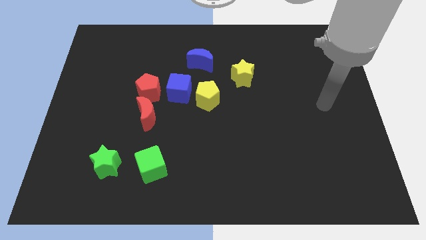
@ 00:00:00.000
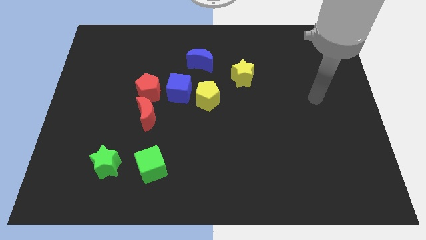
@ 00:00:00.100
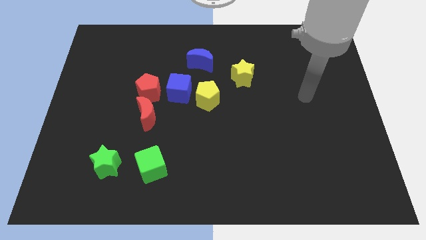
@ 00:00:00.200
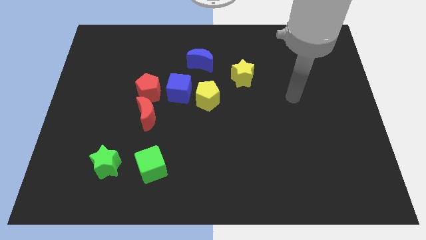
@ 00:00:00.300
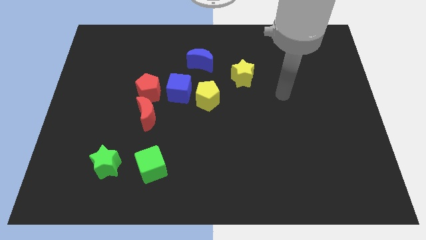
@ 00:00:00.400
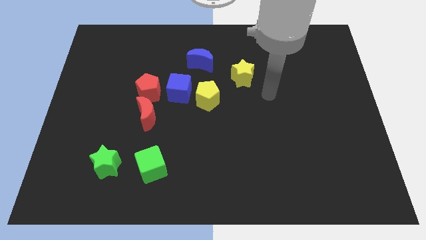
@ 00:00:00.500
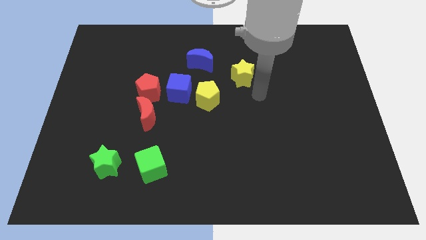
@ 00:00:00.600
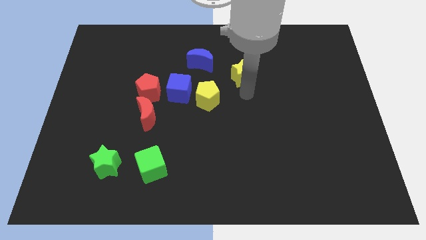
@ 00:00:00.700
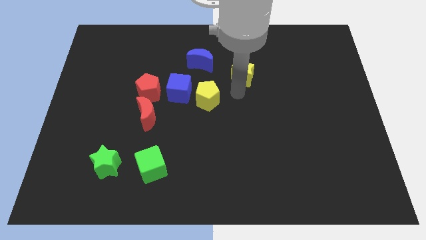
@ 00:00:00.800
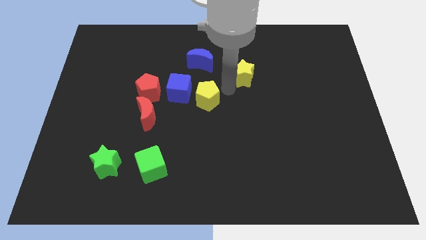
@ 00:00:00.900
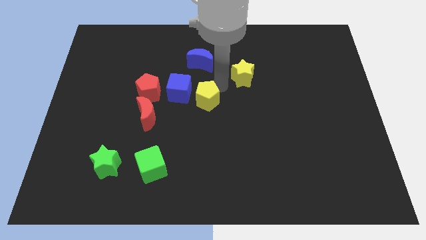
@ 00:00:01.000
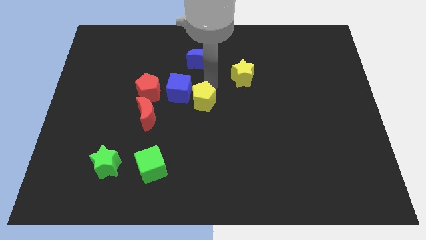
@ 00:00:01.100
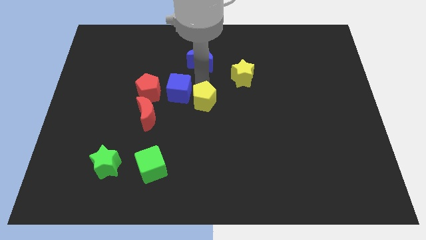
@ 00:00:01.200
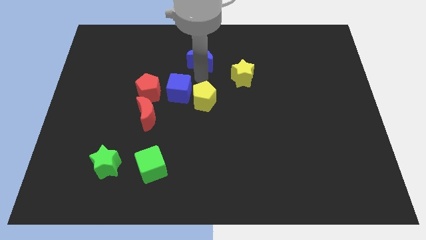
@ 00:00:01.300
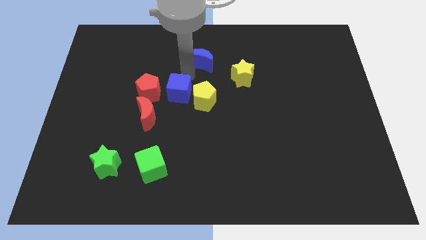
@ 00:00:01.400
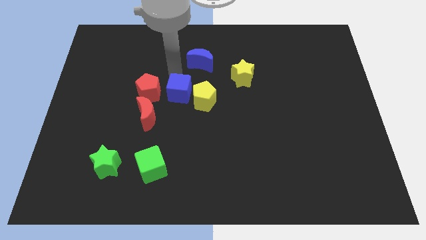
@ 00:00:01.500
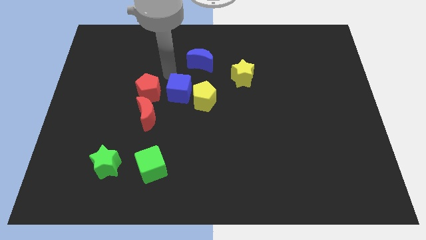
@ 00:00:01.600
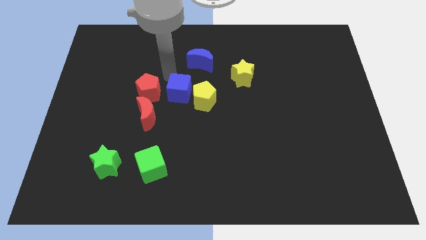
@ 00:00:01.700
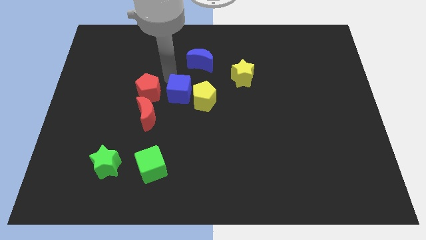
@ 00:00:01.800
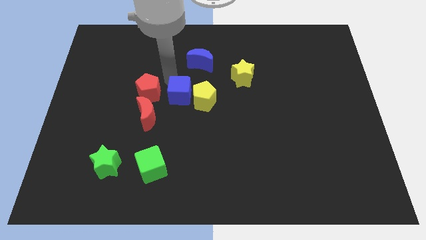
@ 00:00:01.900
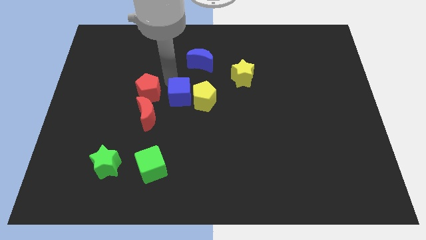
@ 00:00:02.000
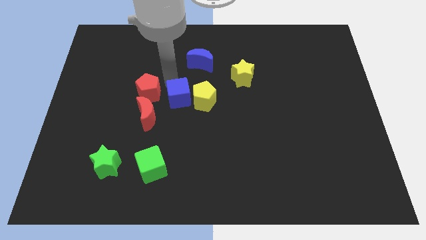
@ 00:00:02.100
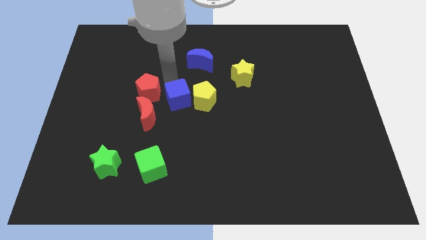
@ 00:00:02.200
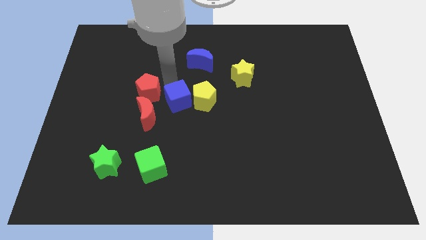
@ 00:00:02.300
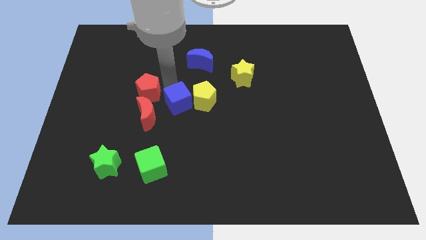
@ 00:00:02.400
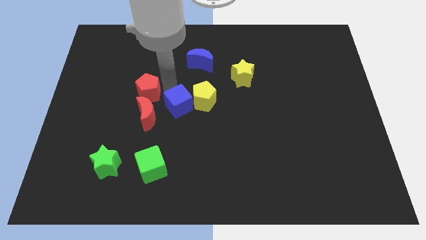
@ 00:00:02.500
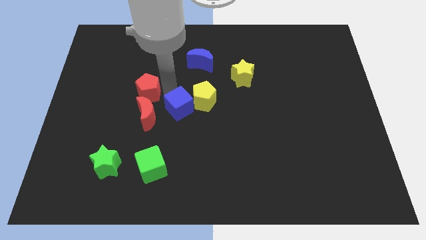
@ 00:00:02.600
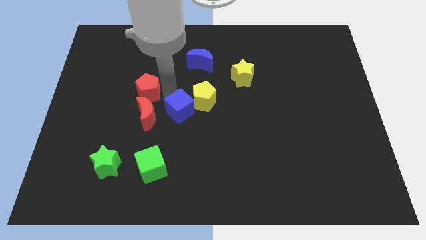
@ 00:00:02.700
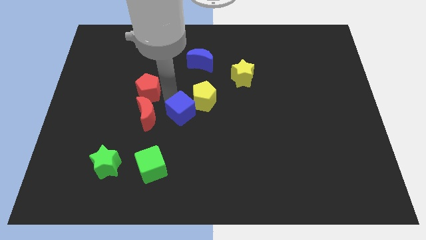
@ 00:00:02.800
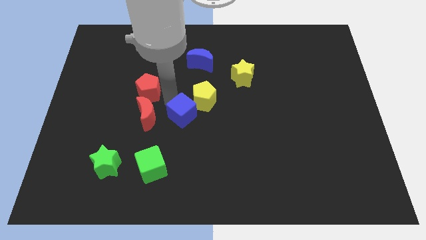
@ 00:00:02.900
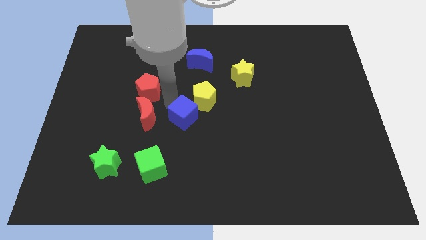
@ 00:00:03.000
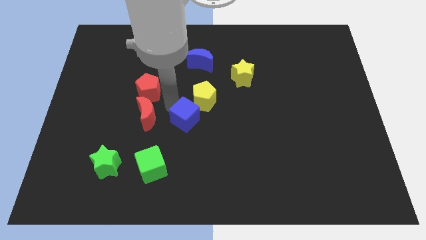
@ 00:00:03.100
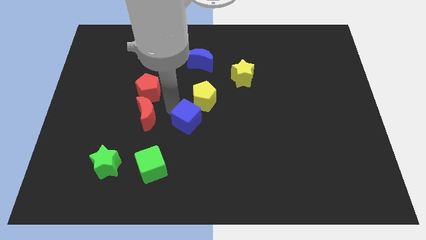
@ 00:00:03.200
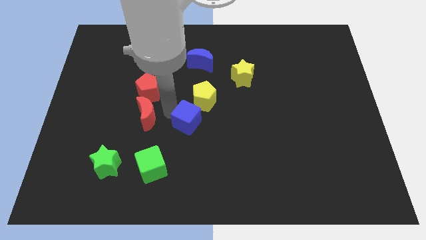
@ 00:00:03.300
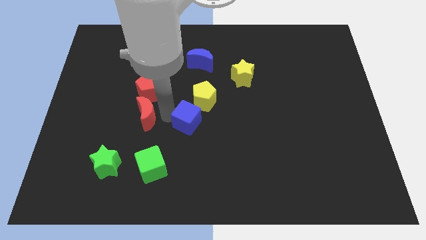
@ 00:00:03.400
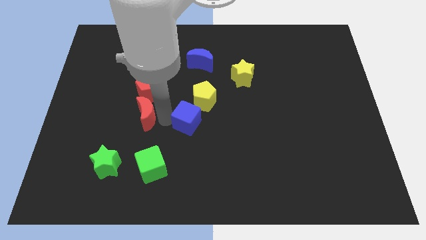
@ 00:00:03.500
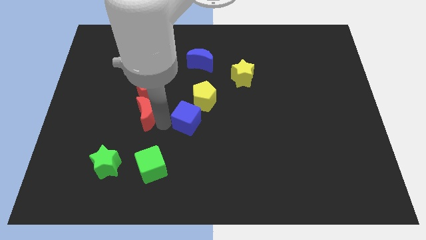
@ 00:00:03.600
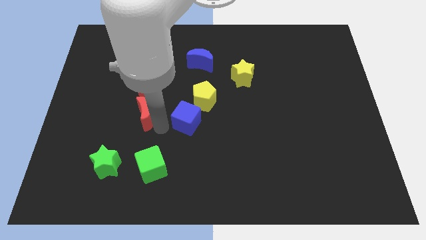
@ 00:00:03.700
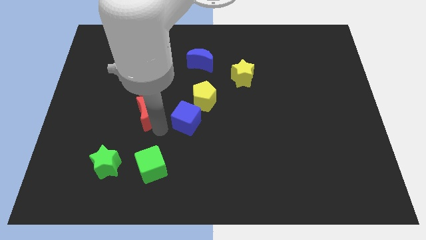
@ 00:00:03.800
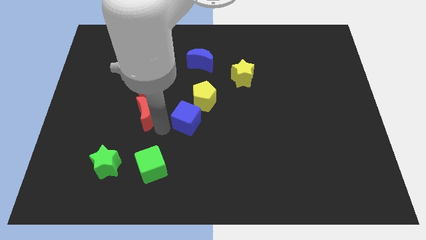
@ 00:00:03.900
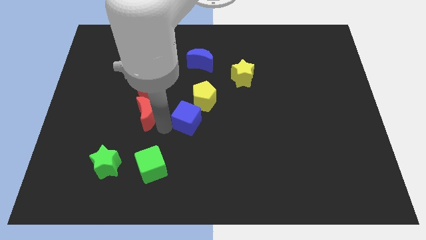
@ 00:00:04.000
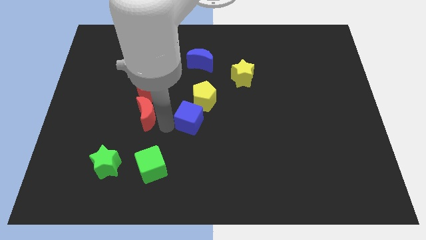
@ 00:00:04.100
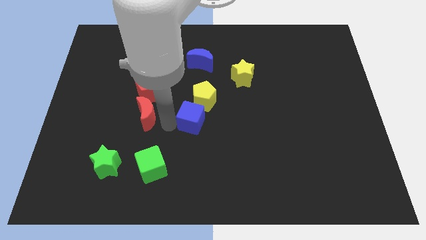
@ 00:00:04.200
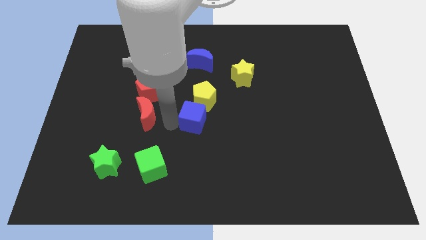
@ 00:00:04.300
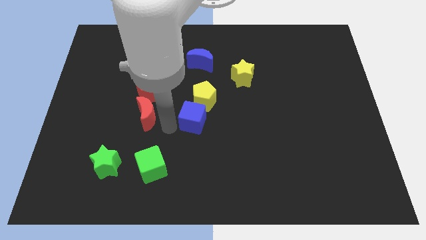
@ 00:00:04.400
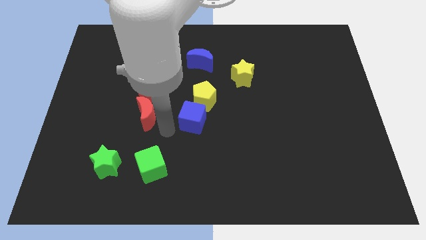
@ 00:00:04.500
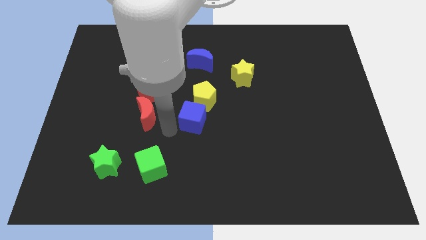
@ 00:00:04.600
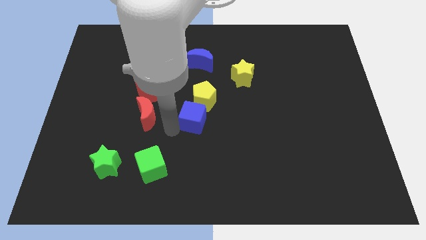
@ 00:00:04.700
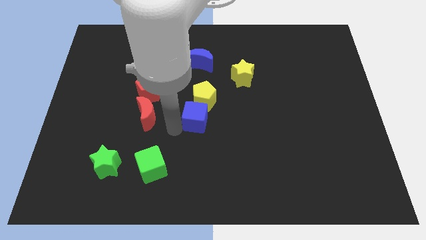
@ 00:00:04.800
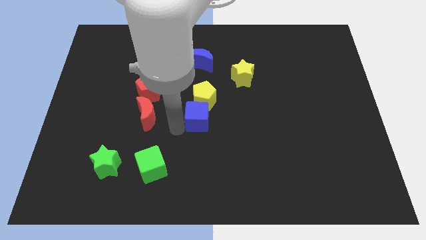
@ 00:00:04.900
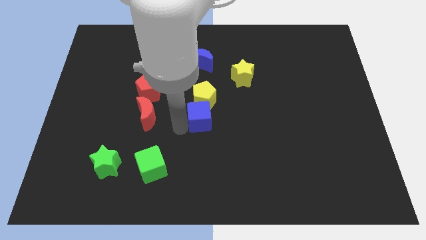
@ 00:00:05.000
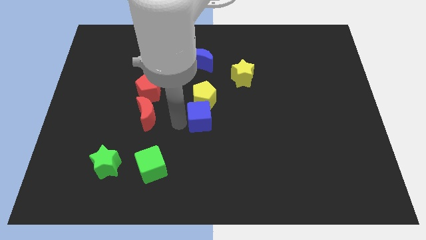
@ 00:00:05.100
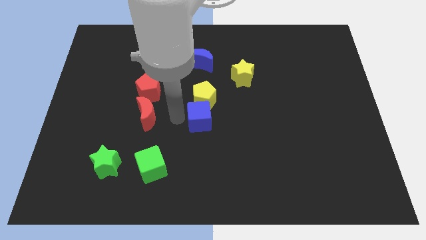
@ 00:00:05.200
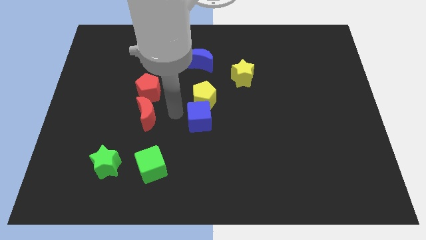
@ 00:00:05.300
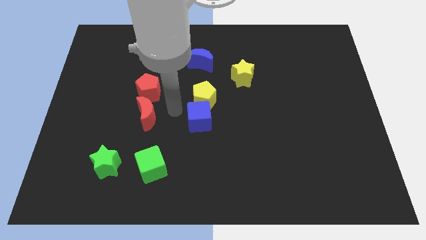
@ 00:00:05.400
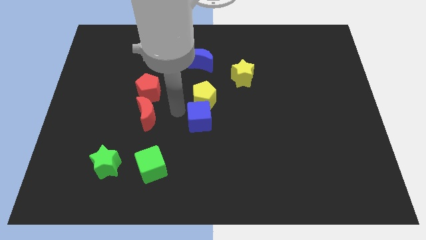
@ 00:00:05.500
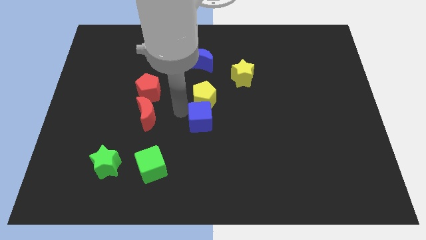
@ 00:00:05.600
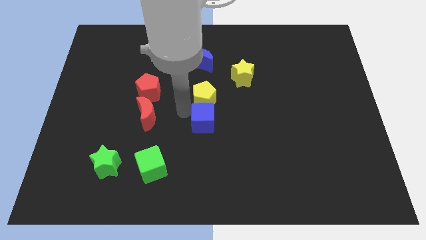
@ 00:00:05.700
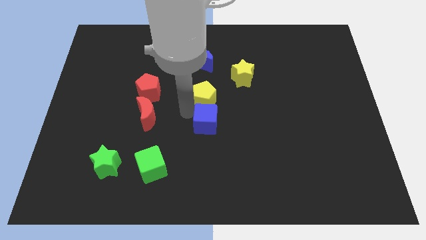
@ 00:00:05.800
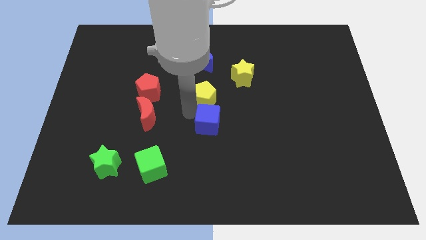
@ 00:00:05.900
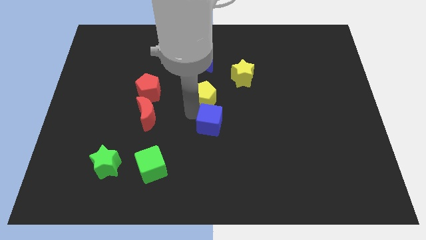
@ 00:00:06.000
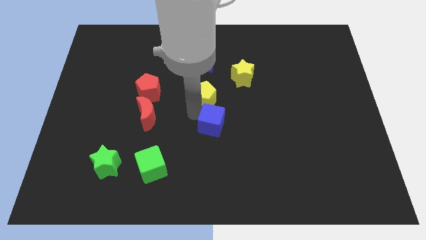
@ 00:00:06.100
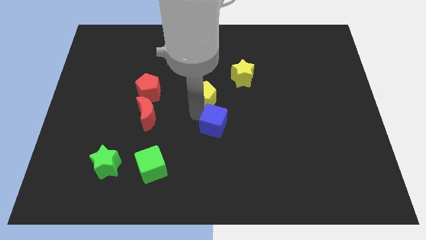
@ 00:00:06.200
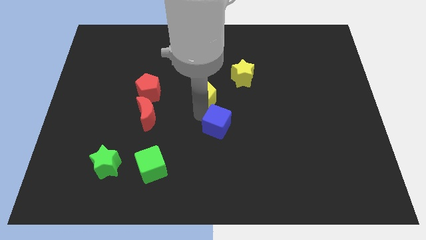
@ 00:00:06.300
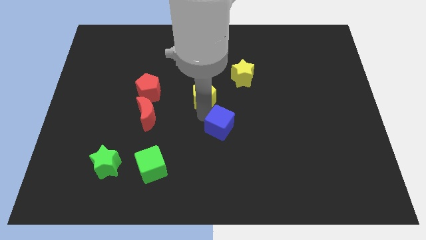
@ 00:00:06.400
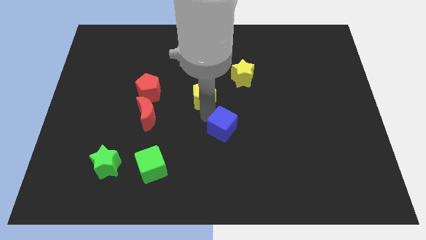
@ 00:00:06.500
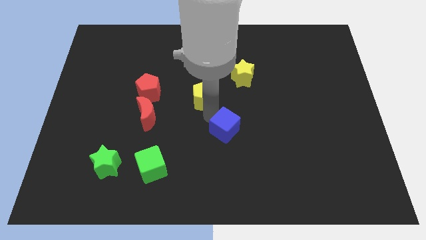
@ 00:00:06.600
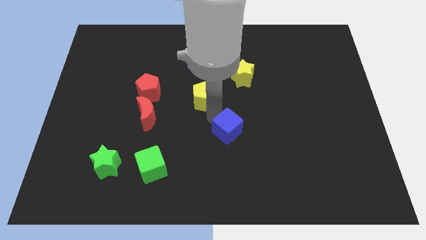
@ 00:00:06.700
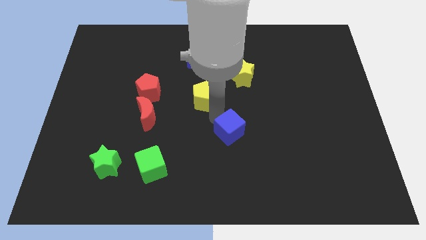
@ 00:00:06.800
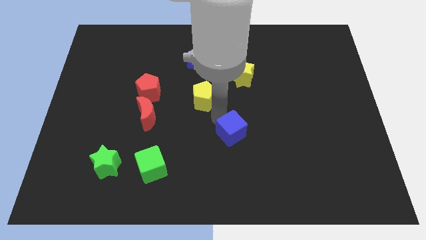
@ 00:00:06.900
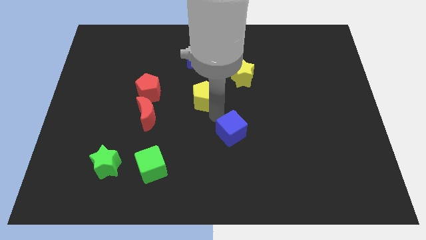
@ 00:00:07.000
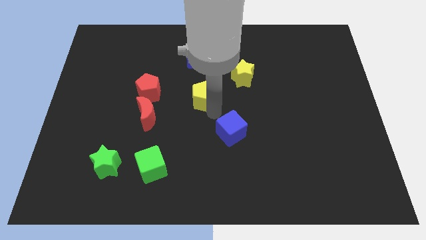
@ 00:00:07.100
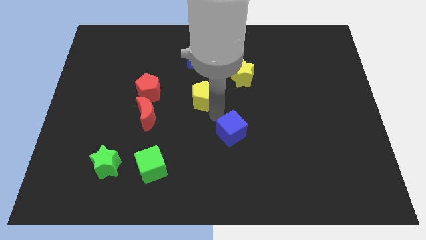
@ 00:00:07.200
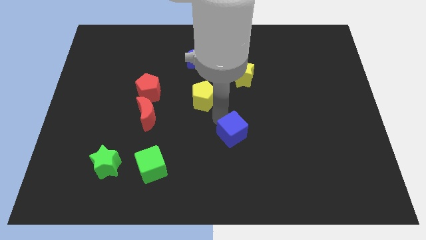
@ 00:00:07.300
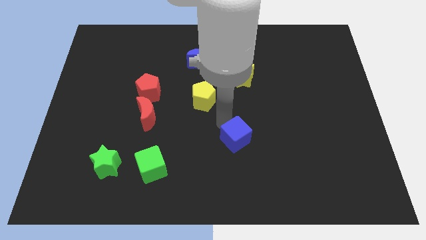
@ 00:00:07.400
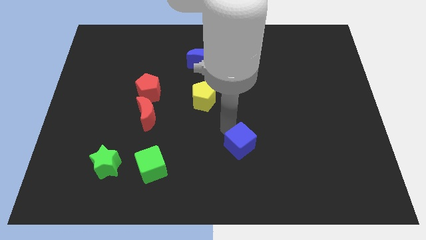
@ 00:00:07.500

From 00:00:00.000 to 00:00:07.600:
slide the blue cube down and right diagonally

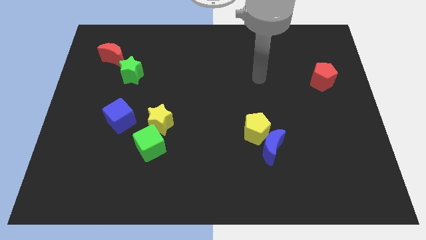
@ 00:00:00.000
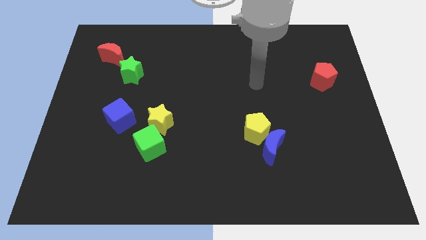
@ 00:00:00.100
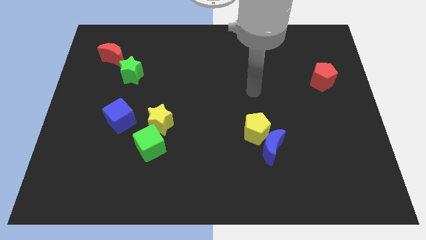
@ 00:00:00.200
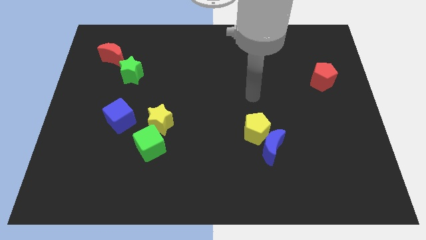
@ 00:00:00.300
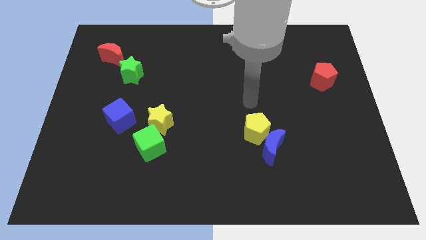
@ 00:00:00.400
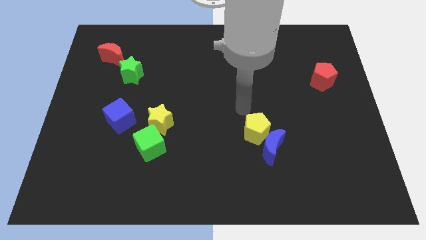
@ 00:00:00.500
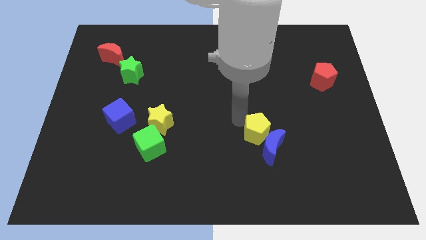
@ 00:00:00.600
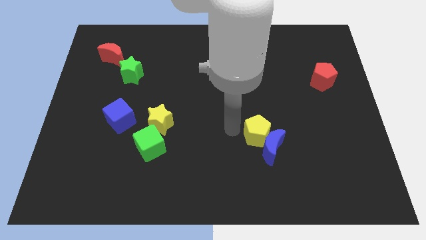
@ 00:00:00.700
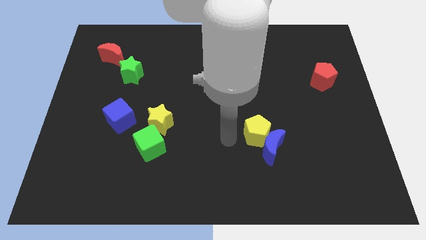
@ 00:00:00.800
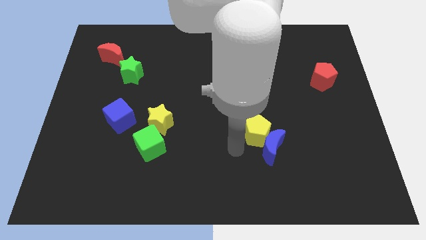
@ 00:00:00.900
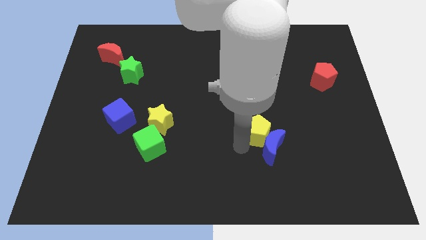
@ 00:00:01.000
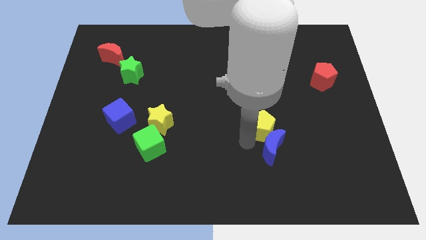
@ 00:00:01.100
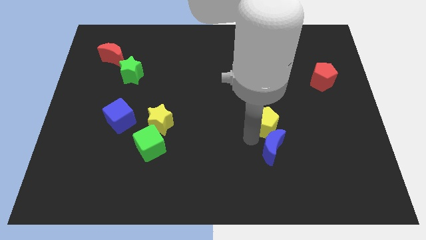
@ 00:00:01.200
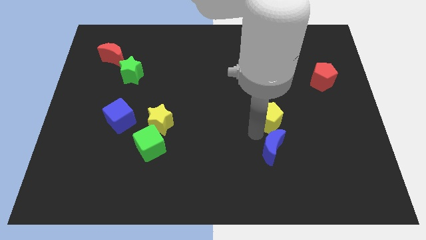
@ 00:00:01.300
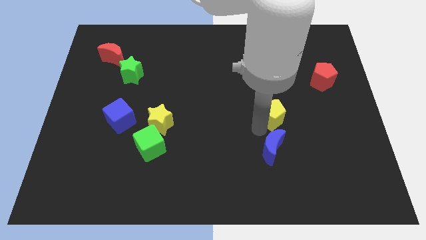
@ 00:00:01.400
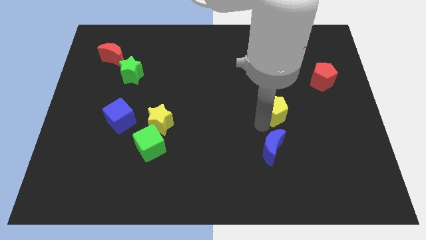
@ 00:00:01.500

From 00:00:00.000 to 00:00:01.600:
slide the yellow pentagon upwards and right diagonally somewhat
